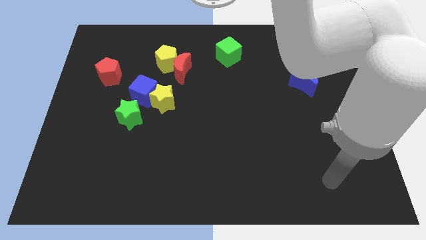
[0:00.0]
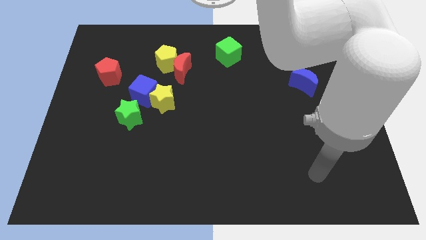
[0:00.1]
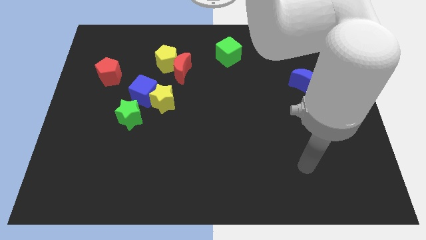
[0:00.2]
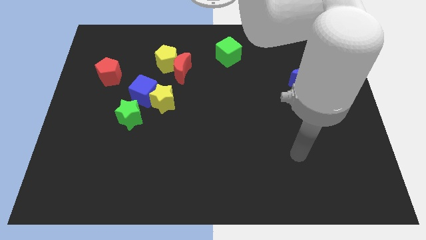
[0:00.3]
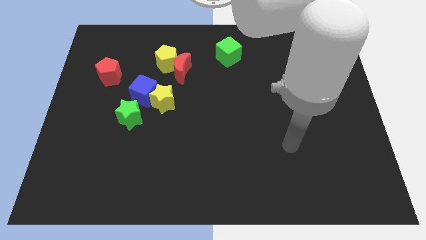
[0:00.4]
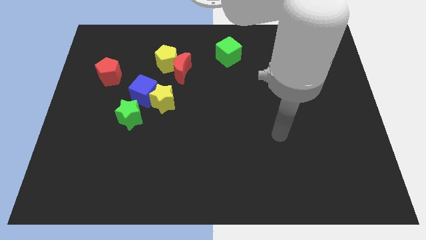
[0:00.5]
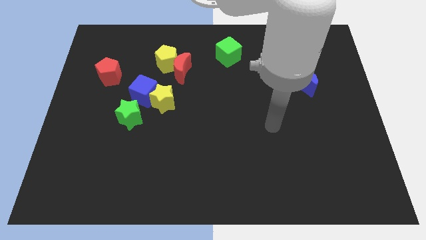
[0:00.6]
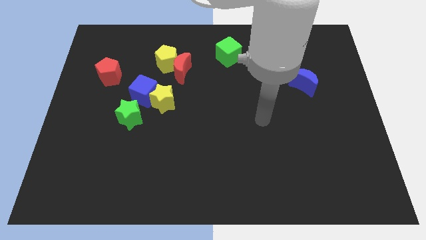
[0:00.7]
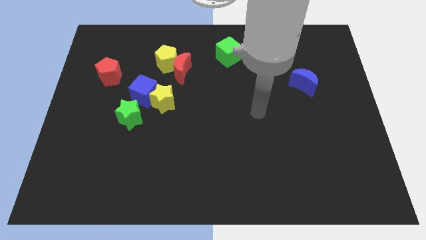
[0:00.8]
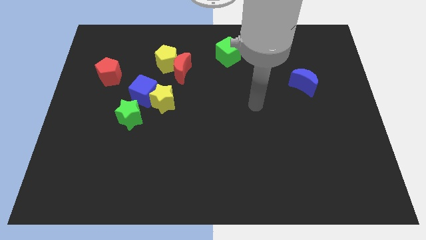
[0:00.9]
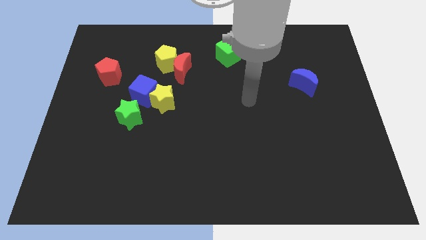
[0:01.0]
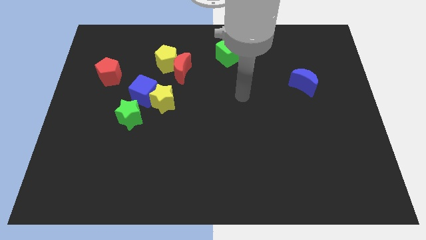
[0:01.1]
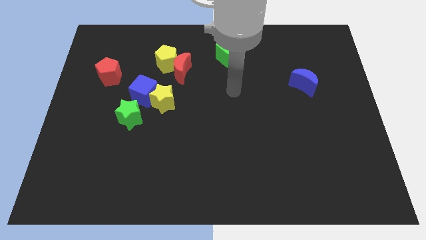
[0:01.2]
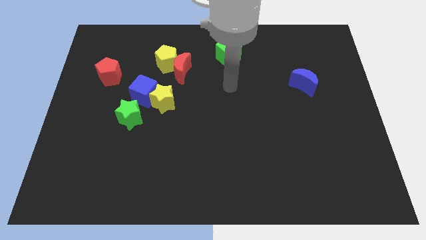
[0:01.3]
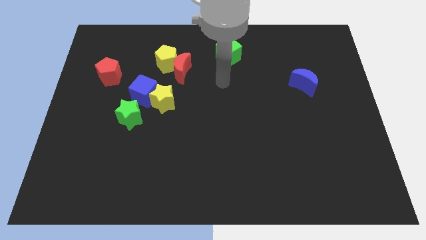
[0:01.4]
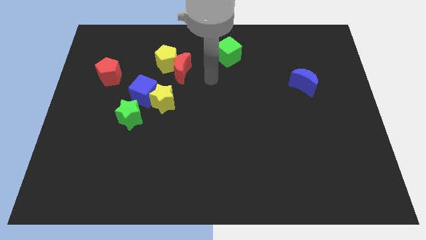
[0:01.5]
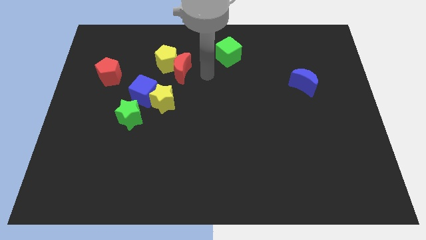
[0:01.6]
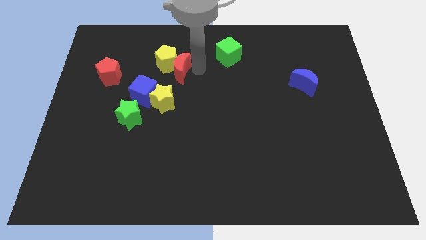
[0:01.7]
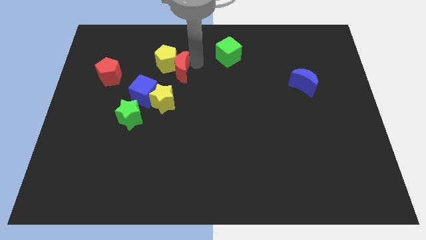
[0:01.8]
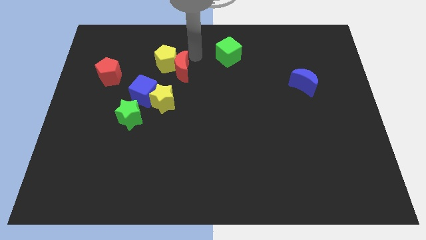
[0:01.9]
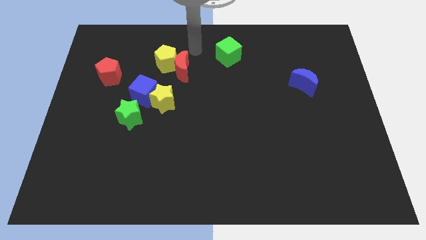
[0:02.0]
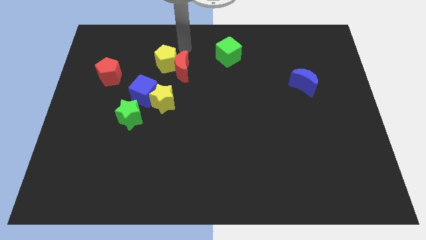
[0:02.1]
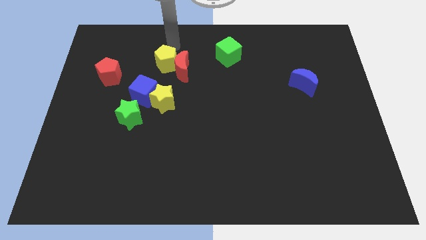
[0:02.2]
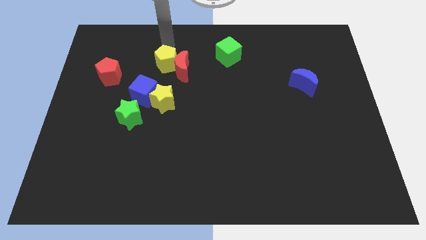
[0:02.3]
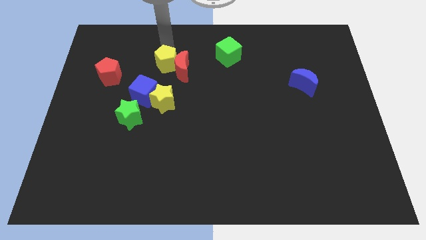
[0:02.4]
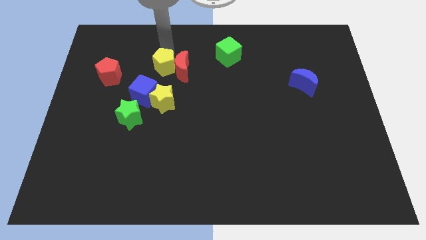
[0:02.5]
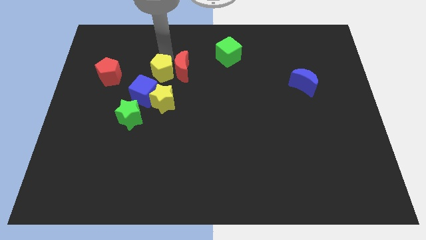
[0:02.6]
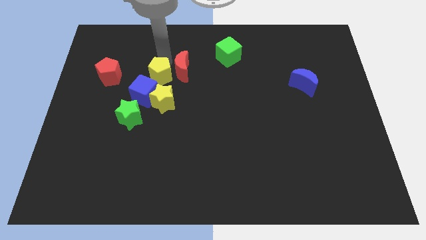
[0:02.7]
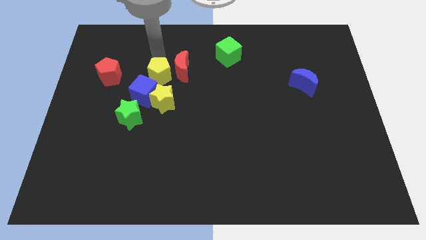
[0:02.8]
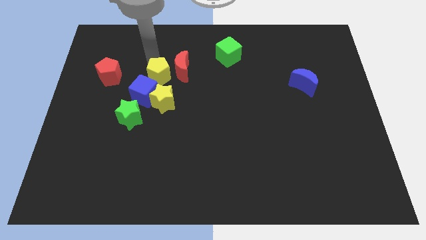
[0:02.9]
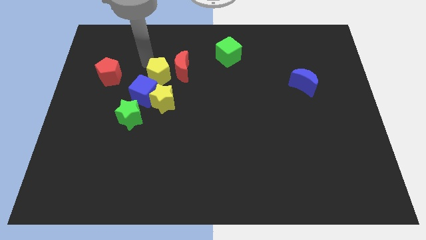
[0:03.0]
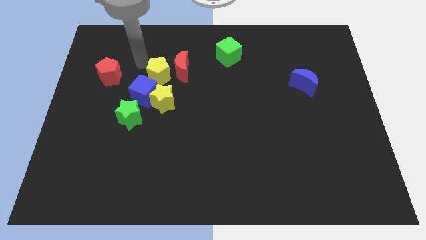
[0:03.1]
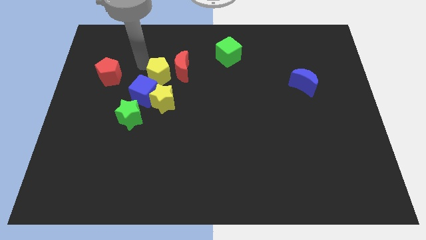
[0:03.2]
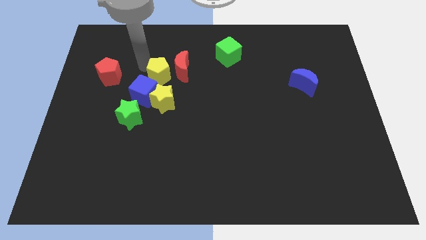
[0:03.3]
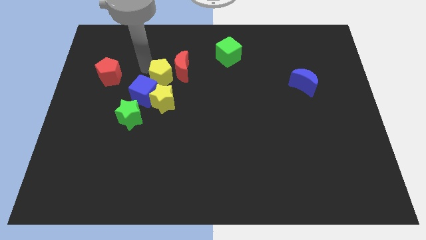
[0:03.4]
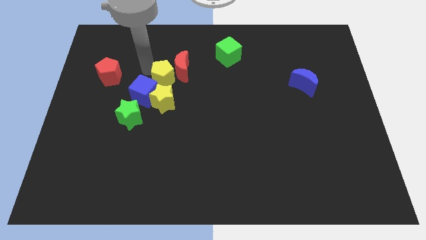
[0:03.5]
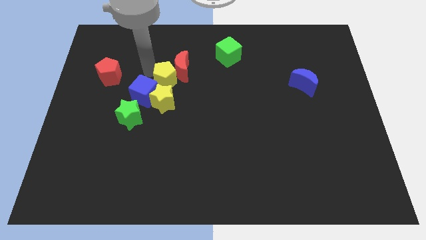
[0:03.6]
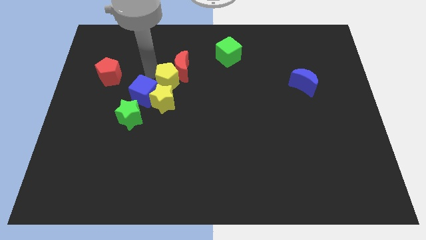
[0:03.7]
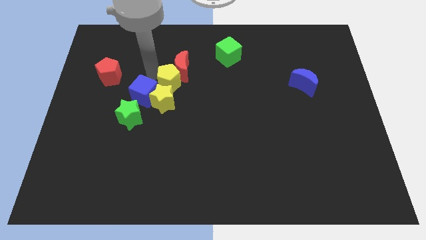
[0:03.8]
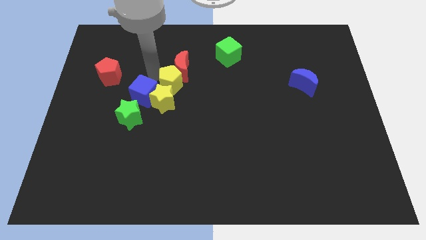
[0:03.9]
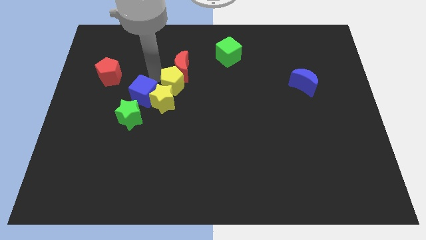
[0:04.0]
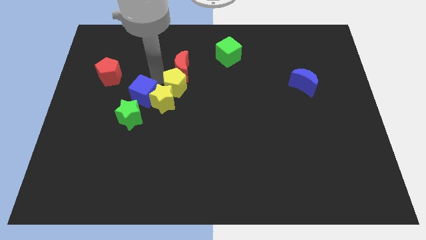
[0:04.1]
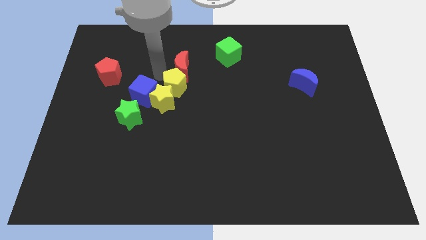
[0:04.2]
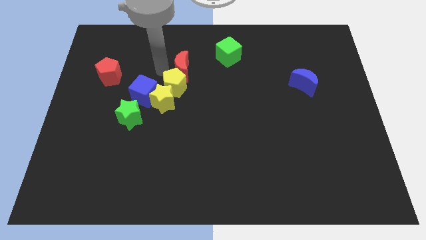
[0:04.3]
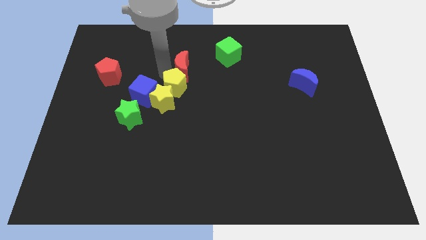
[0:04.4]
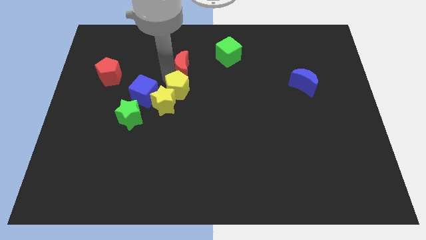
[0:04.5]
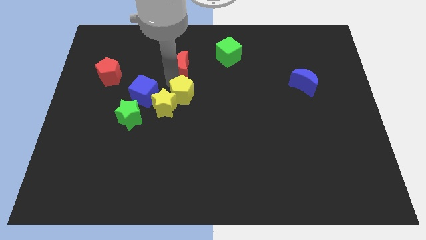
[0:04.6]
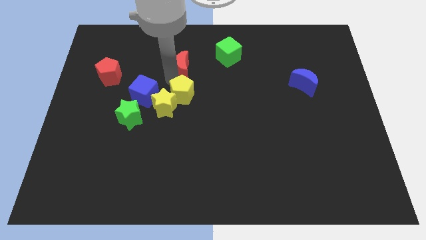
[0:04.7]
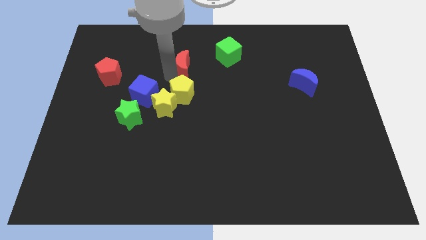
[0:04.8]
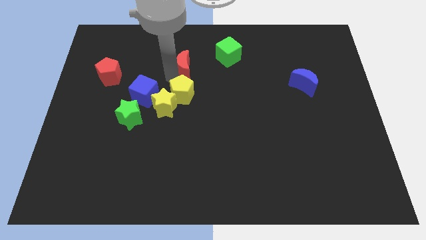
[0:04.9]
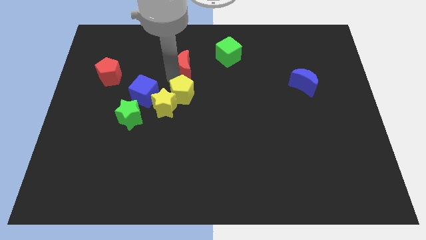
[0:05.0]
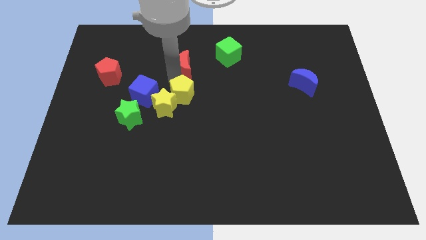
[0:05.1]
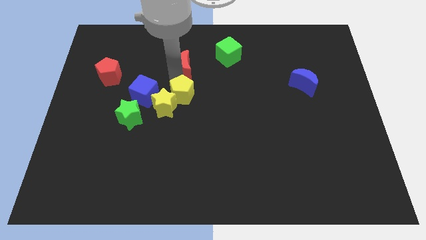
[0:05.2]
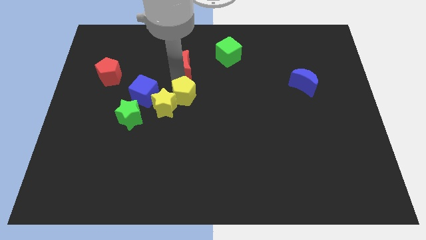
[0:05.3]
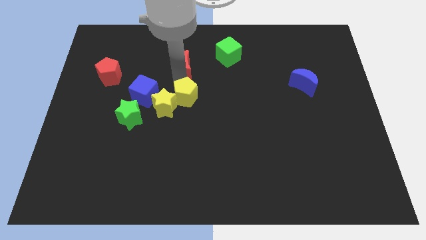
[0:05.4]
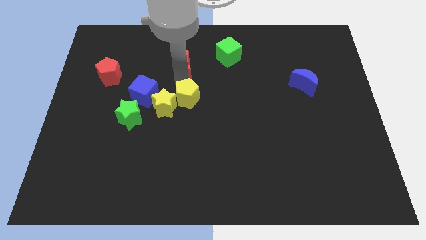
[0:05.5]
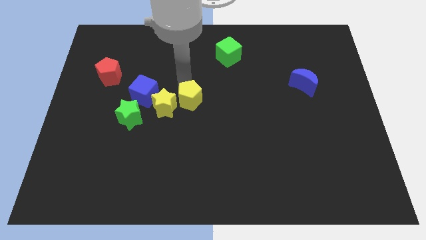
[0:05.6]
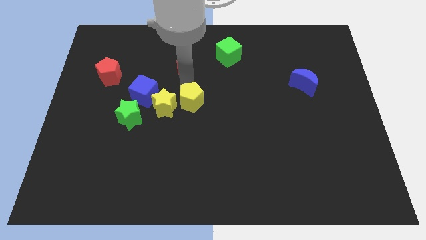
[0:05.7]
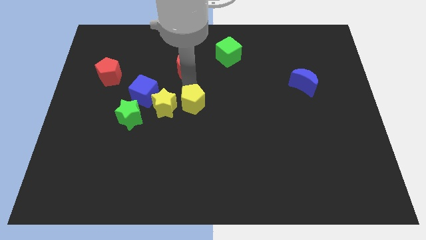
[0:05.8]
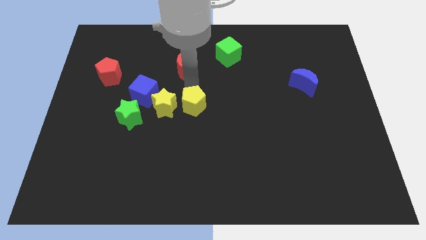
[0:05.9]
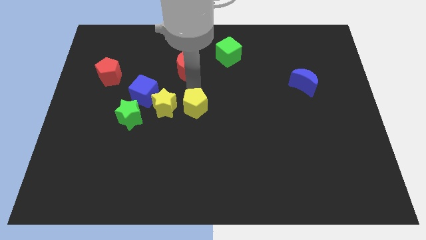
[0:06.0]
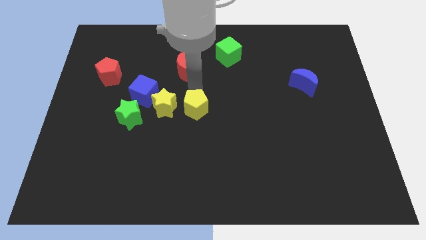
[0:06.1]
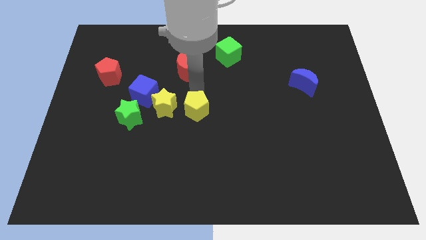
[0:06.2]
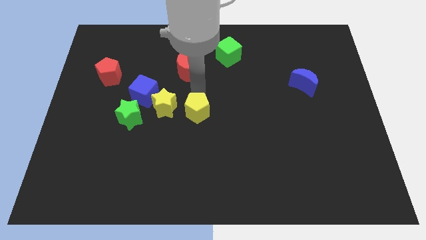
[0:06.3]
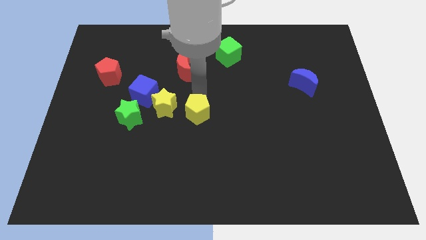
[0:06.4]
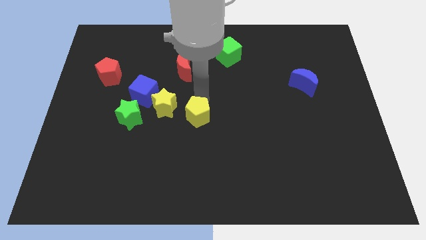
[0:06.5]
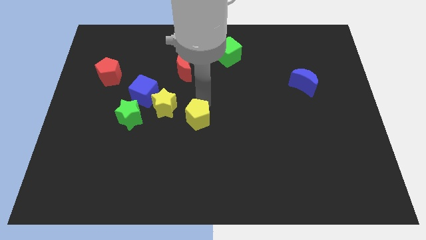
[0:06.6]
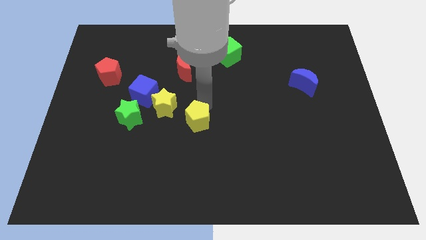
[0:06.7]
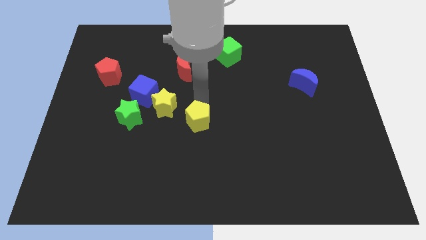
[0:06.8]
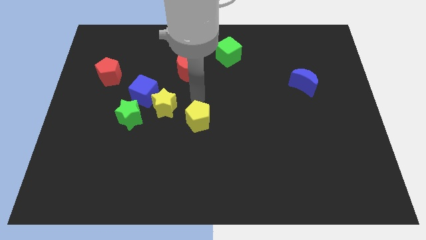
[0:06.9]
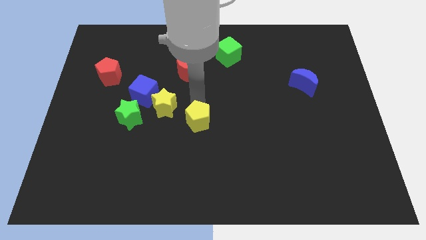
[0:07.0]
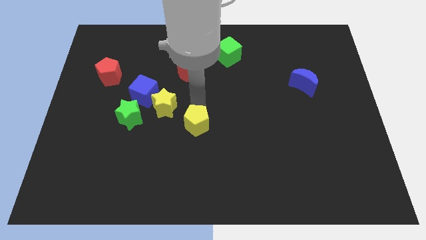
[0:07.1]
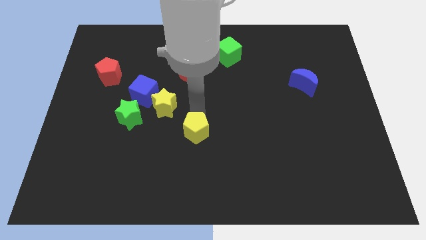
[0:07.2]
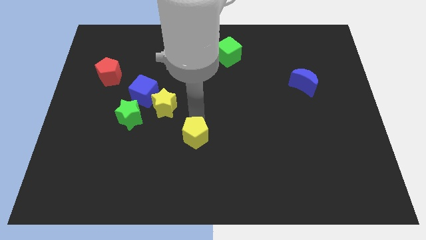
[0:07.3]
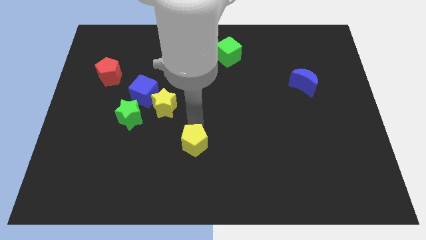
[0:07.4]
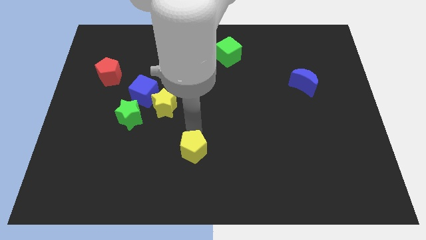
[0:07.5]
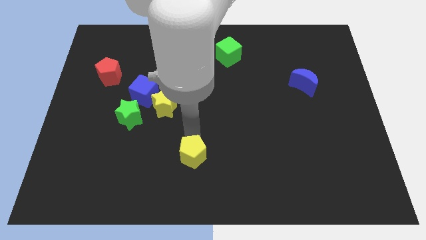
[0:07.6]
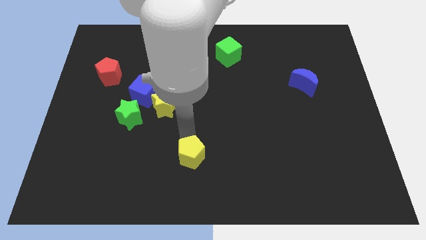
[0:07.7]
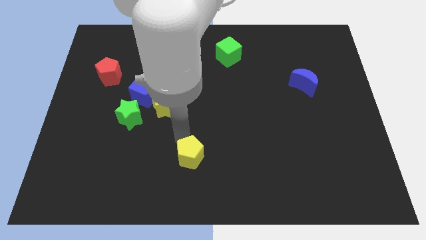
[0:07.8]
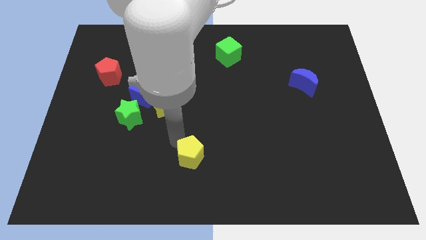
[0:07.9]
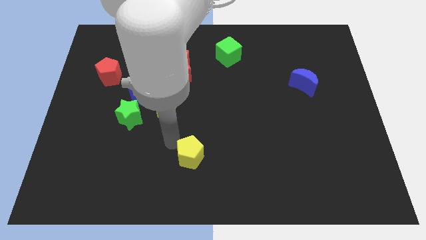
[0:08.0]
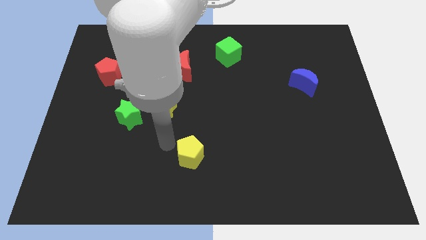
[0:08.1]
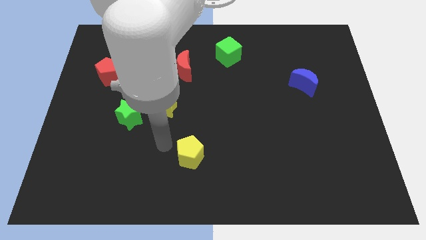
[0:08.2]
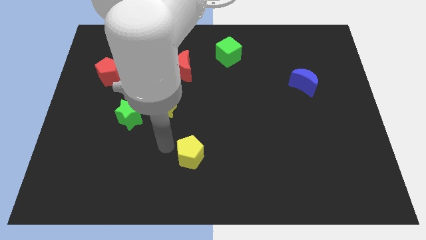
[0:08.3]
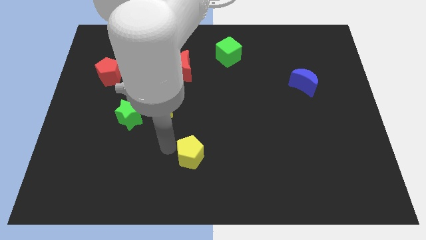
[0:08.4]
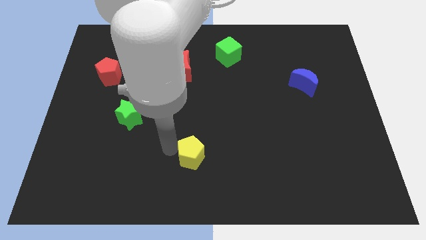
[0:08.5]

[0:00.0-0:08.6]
move the yellow pentagon to the bottom side
